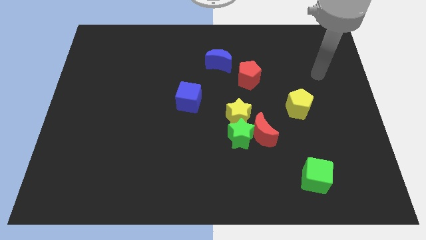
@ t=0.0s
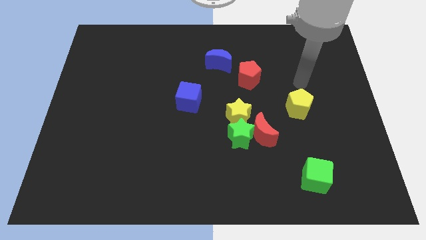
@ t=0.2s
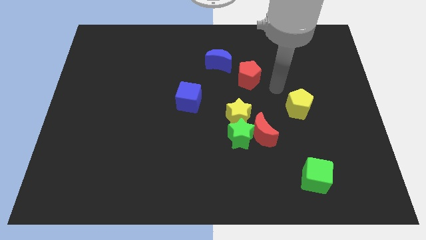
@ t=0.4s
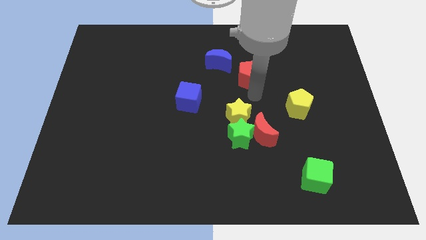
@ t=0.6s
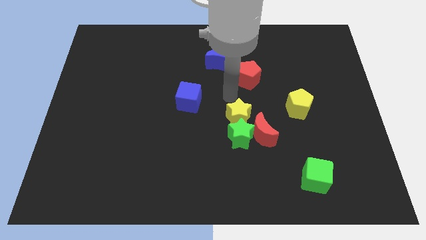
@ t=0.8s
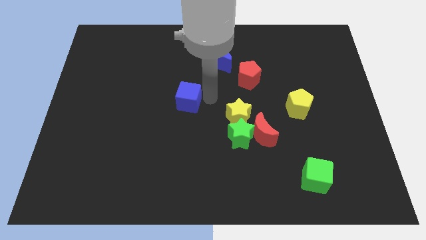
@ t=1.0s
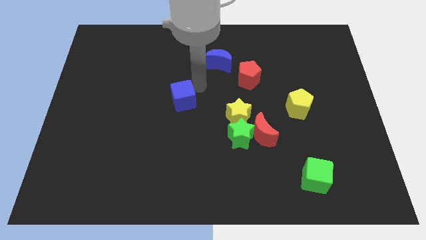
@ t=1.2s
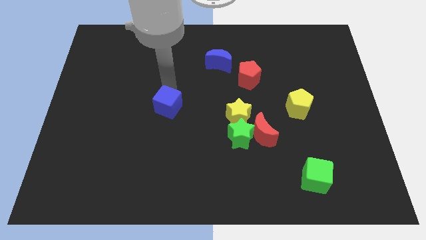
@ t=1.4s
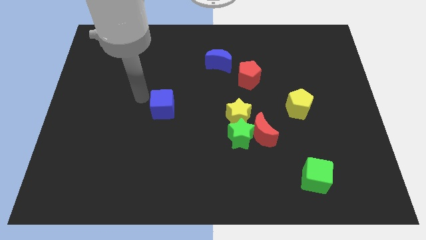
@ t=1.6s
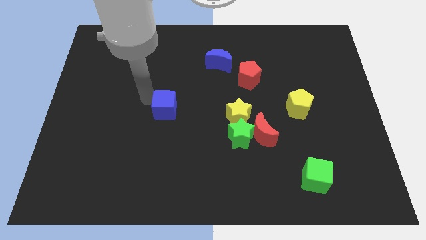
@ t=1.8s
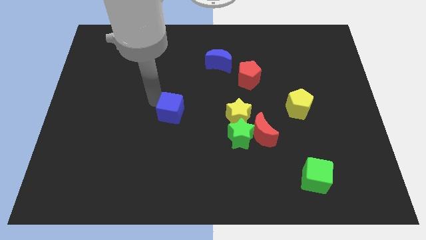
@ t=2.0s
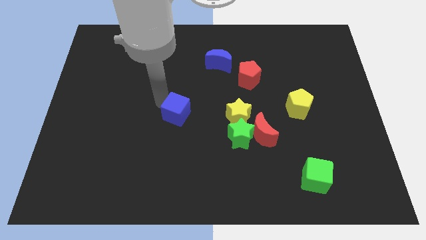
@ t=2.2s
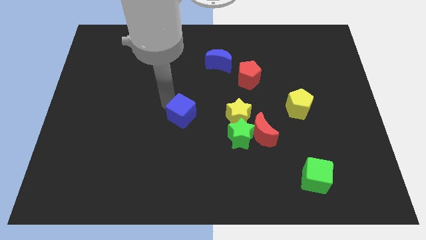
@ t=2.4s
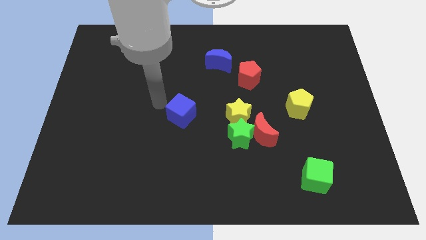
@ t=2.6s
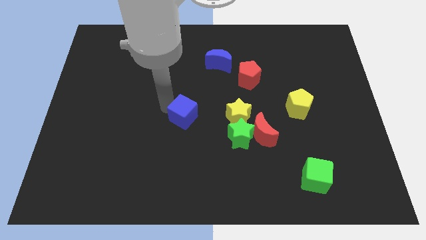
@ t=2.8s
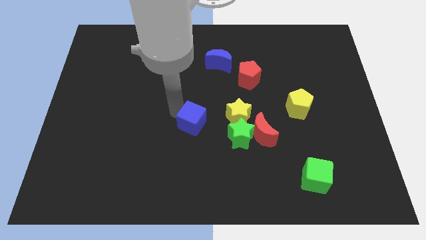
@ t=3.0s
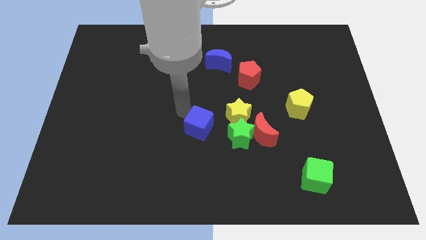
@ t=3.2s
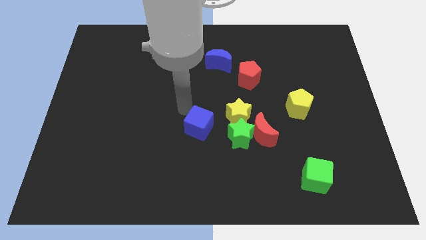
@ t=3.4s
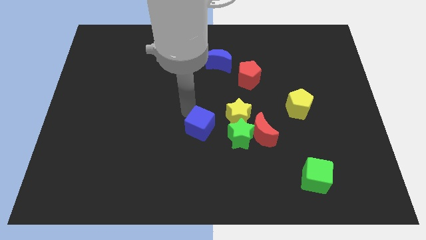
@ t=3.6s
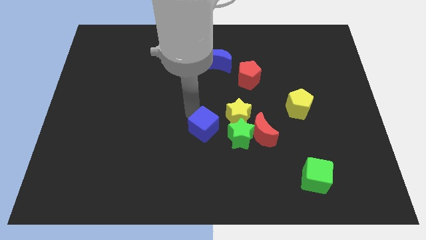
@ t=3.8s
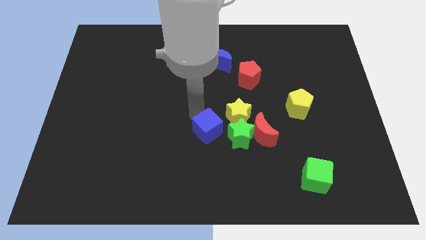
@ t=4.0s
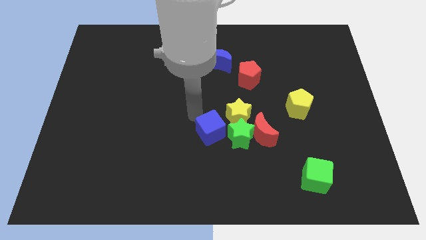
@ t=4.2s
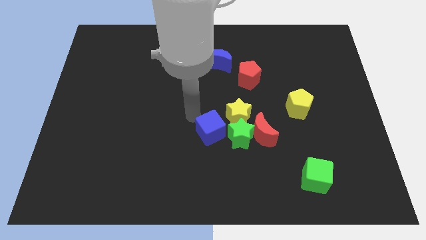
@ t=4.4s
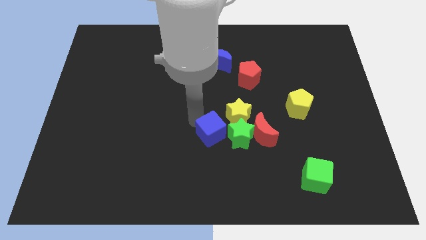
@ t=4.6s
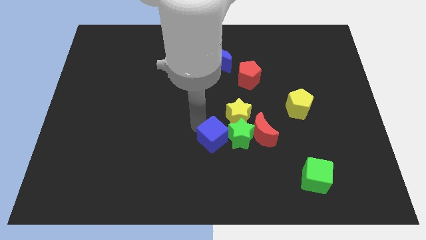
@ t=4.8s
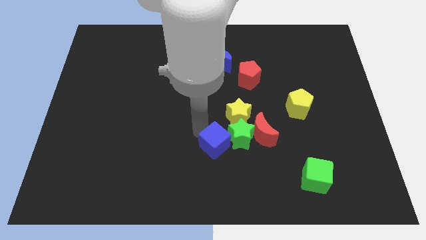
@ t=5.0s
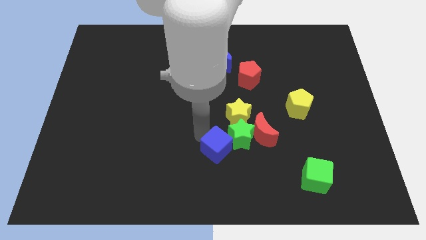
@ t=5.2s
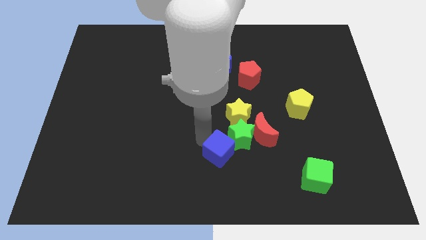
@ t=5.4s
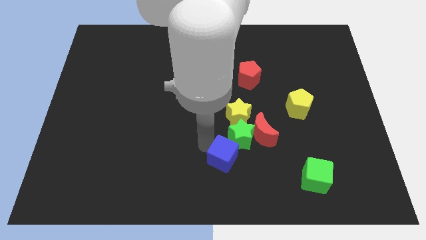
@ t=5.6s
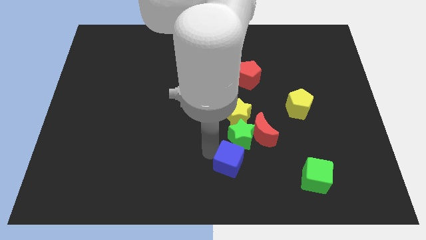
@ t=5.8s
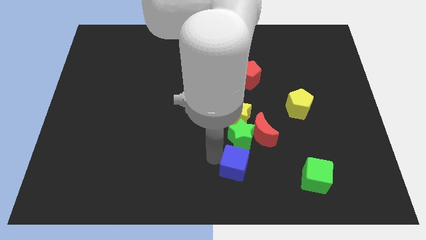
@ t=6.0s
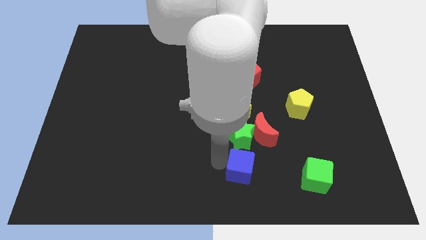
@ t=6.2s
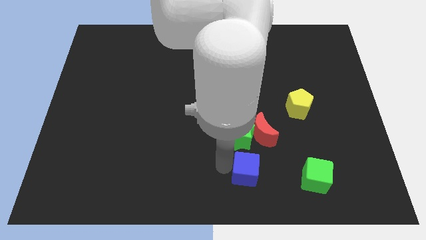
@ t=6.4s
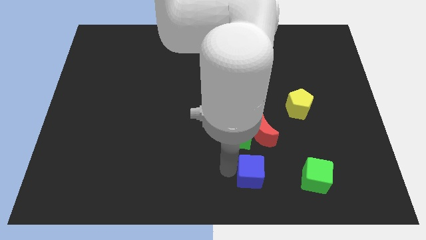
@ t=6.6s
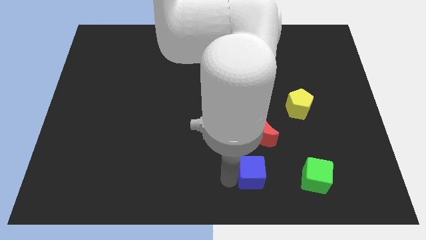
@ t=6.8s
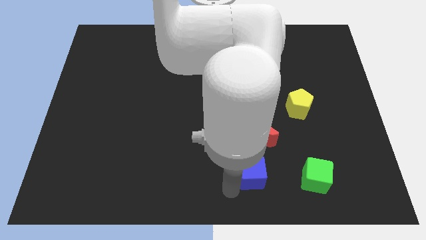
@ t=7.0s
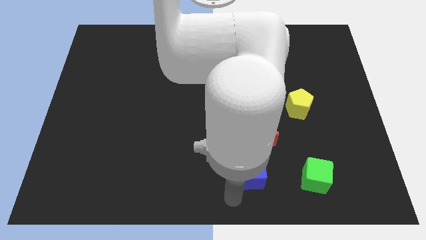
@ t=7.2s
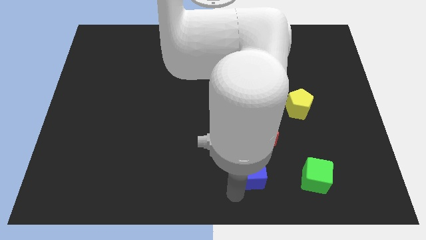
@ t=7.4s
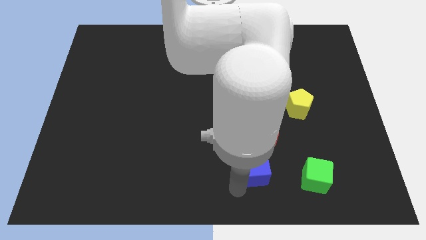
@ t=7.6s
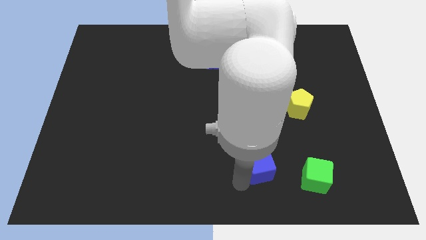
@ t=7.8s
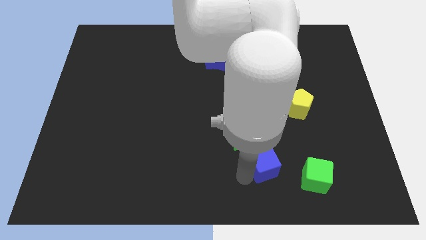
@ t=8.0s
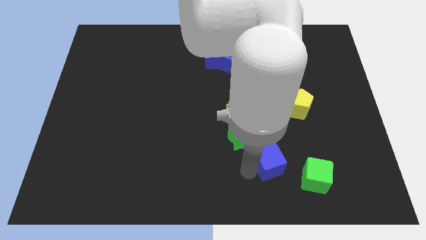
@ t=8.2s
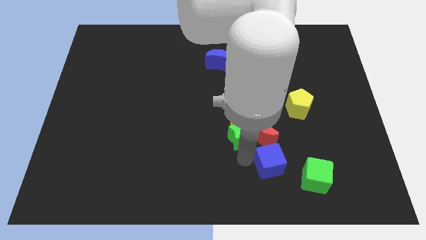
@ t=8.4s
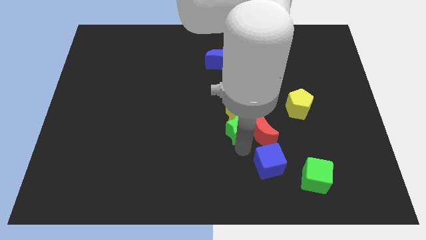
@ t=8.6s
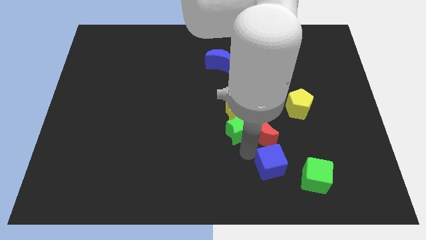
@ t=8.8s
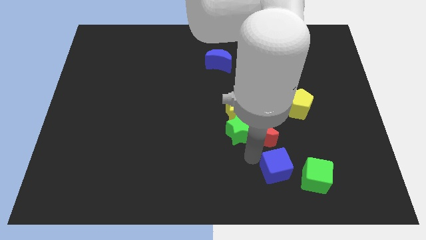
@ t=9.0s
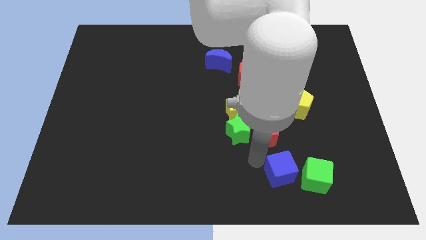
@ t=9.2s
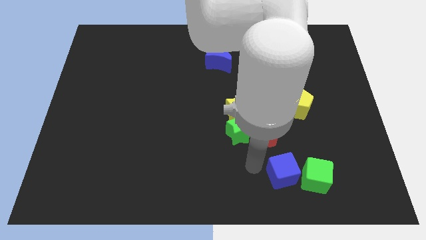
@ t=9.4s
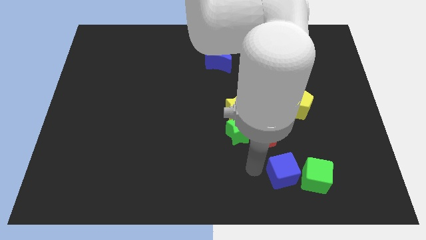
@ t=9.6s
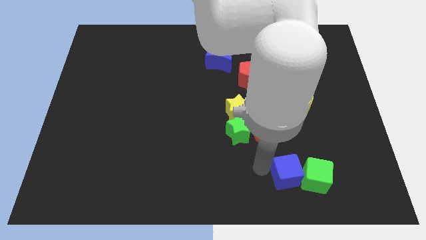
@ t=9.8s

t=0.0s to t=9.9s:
slide the blue cube close to the green cube

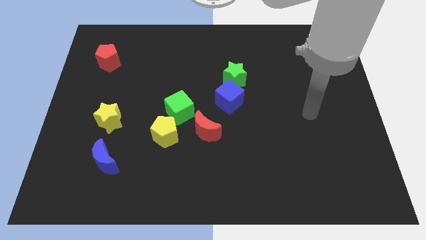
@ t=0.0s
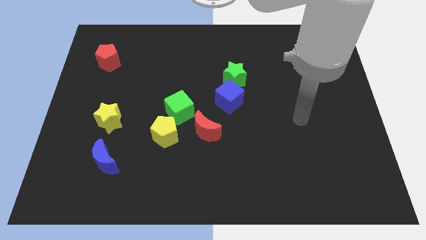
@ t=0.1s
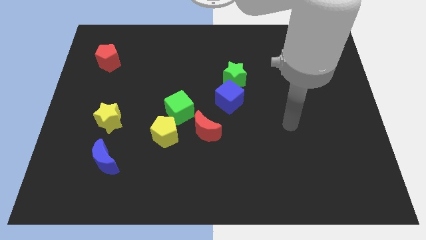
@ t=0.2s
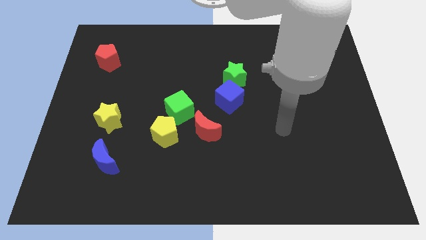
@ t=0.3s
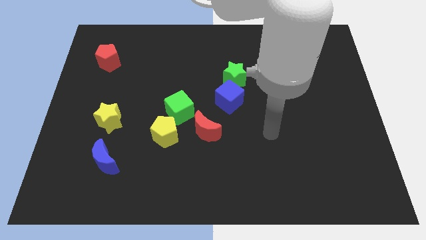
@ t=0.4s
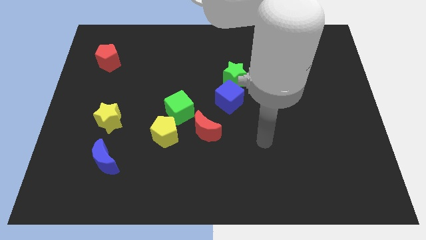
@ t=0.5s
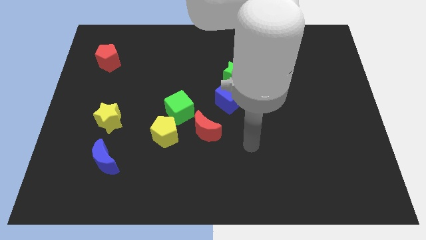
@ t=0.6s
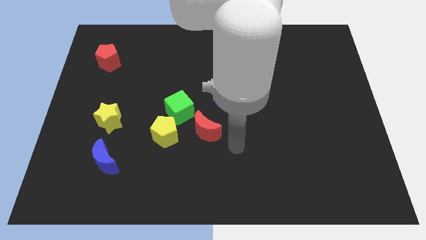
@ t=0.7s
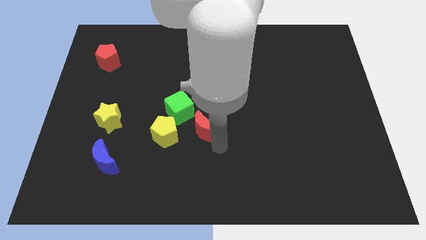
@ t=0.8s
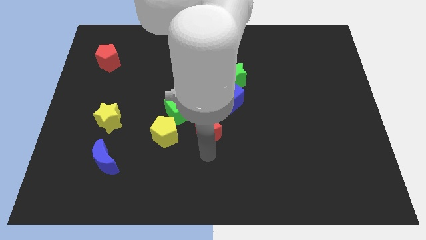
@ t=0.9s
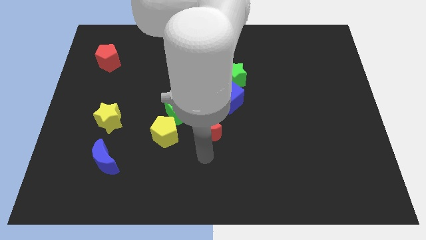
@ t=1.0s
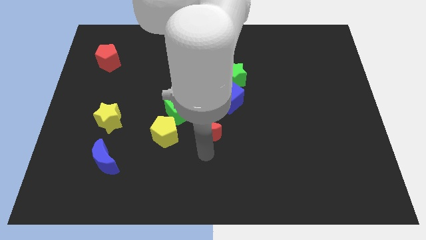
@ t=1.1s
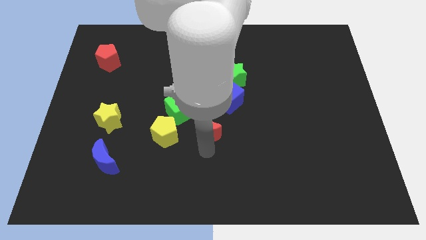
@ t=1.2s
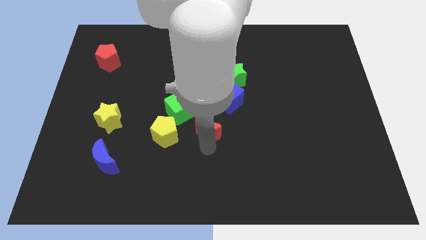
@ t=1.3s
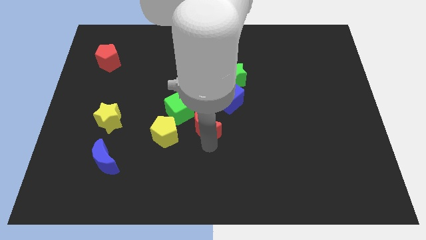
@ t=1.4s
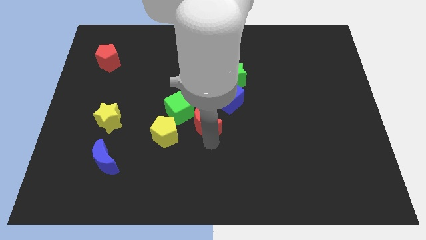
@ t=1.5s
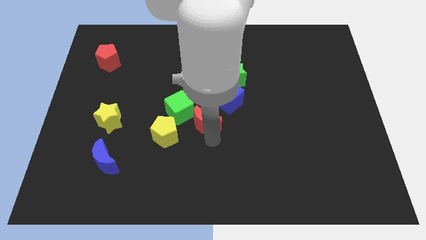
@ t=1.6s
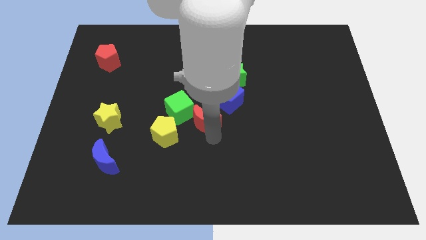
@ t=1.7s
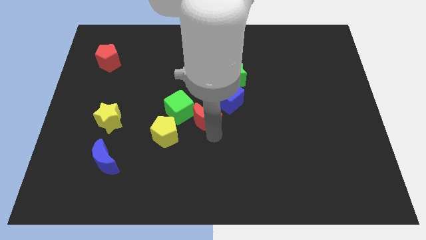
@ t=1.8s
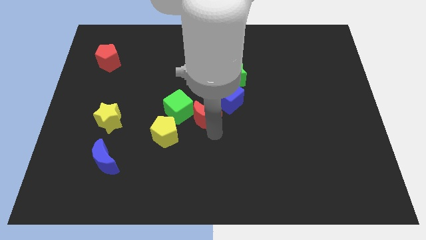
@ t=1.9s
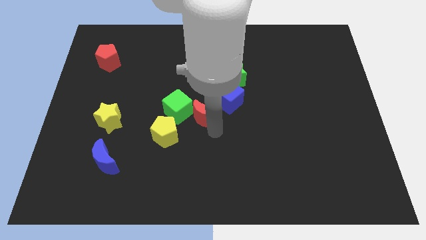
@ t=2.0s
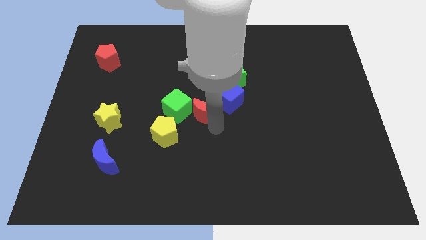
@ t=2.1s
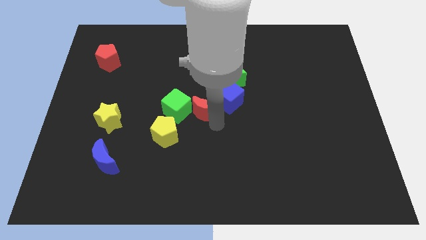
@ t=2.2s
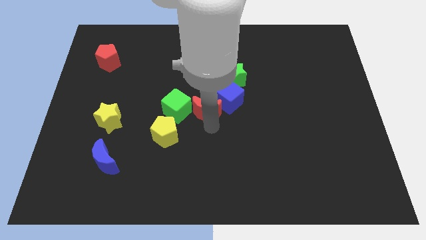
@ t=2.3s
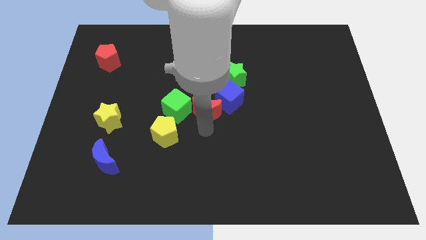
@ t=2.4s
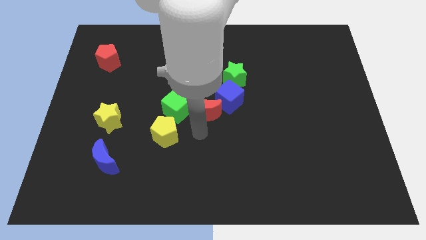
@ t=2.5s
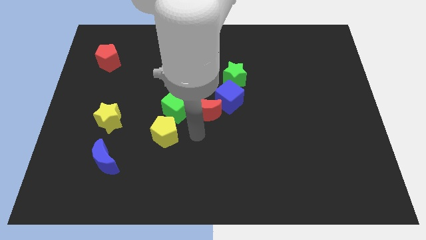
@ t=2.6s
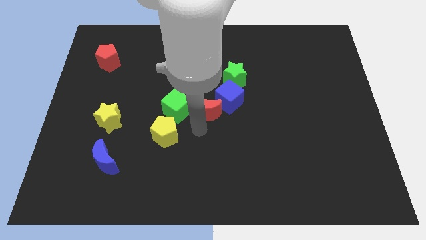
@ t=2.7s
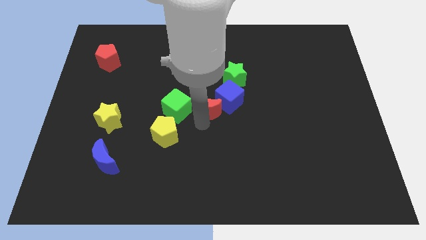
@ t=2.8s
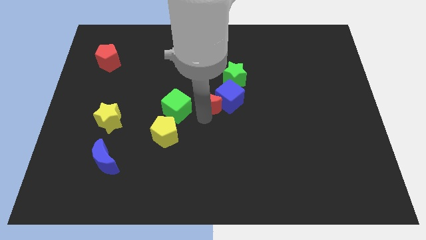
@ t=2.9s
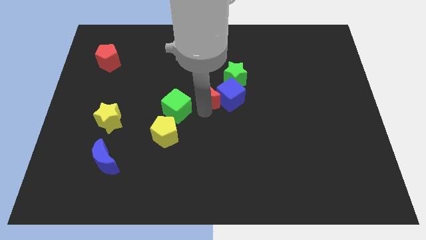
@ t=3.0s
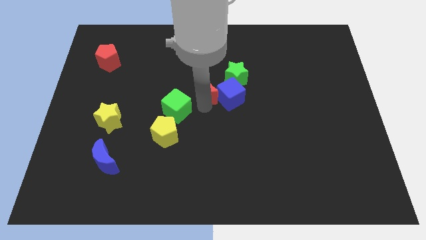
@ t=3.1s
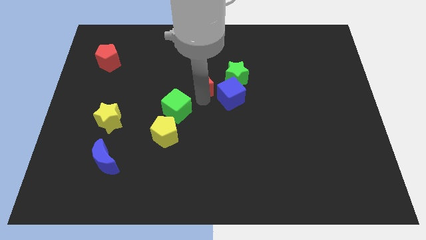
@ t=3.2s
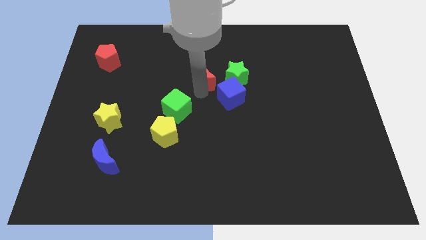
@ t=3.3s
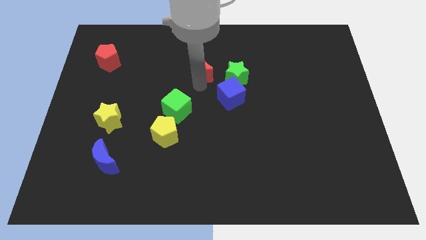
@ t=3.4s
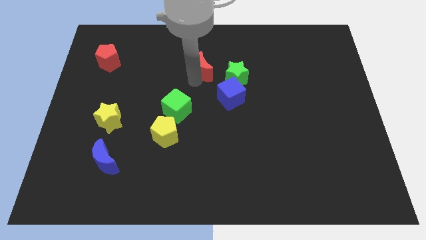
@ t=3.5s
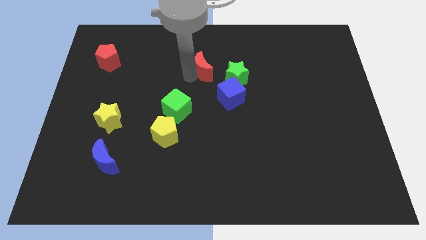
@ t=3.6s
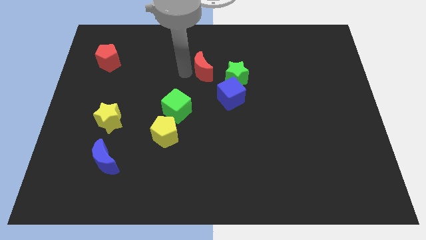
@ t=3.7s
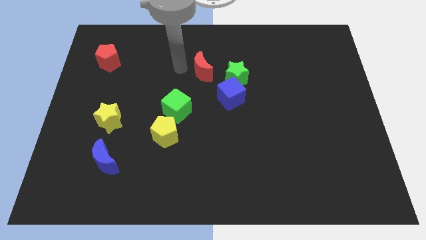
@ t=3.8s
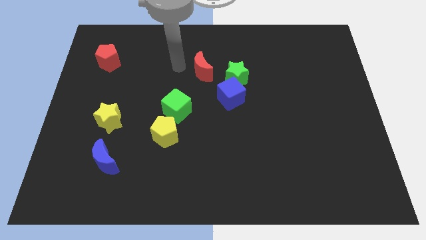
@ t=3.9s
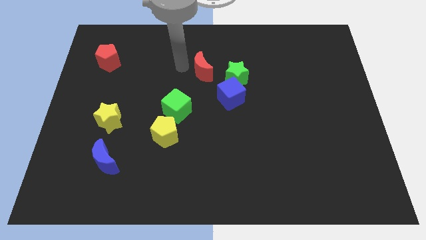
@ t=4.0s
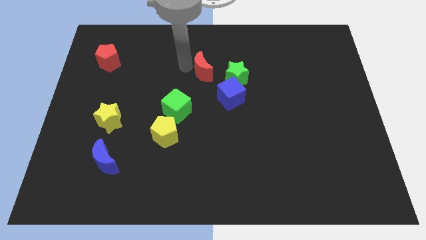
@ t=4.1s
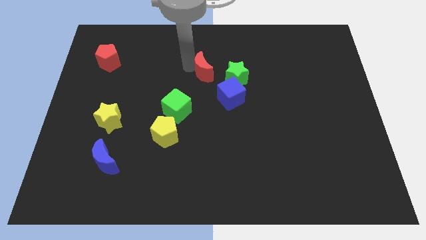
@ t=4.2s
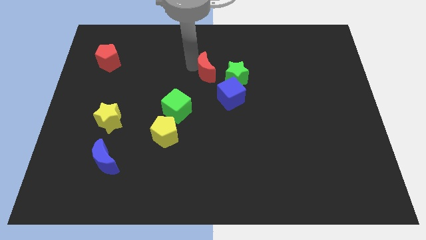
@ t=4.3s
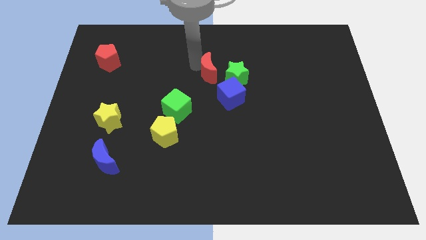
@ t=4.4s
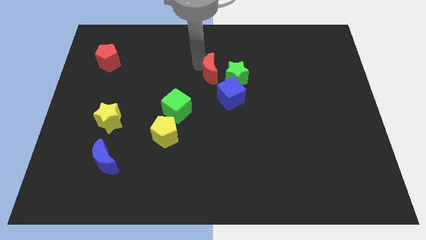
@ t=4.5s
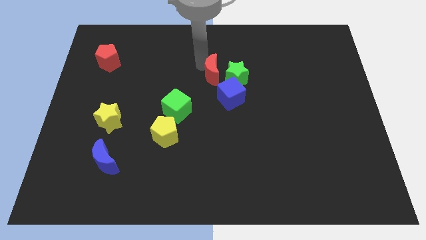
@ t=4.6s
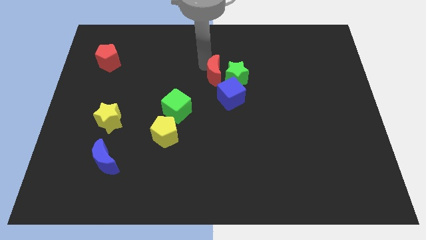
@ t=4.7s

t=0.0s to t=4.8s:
slide the red moon next to the green star
